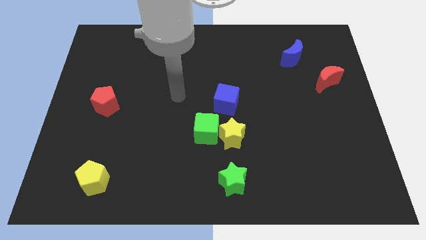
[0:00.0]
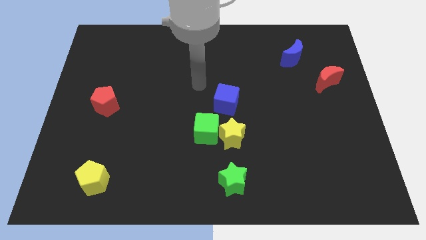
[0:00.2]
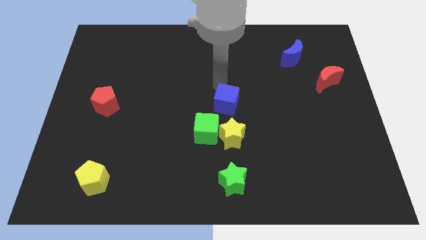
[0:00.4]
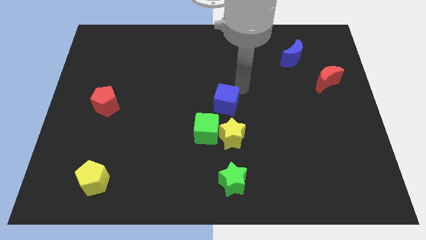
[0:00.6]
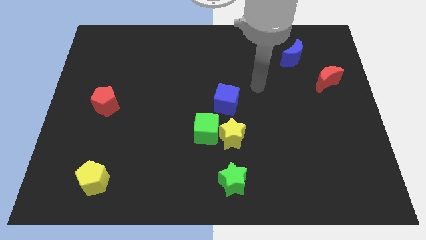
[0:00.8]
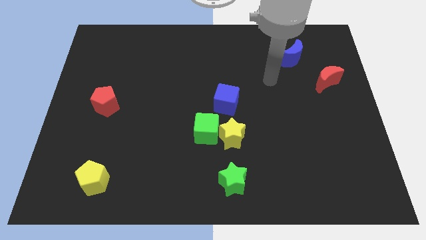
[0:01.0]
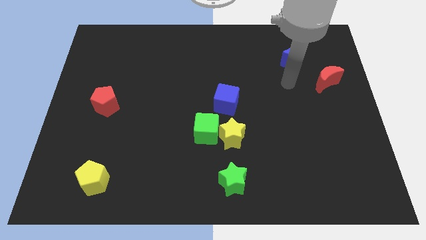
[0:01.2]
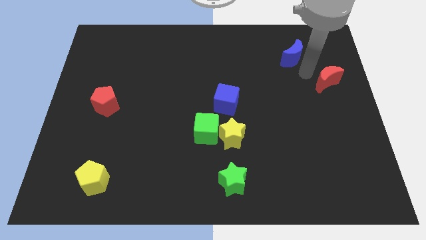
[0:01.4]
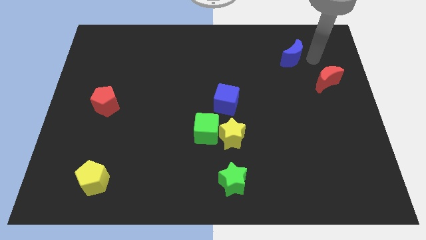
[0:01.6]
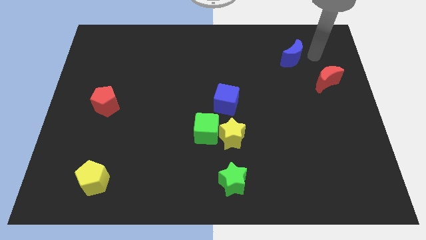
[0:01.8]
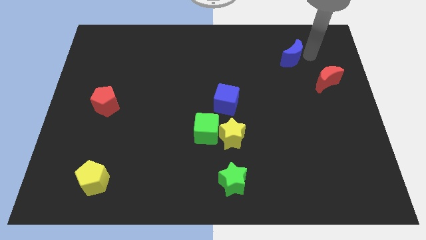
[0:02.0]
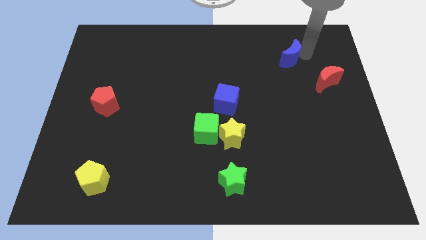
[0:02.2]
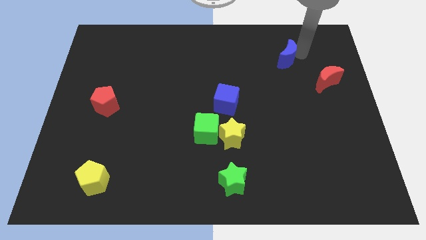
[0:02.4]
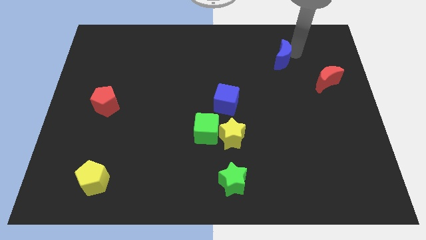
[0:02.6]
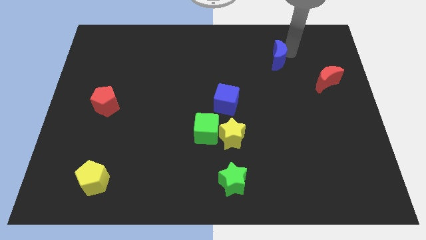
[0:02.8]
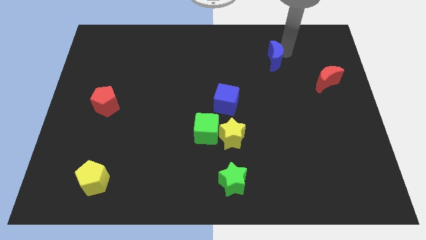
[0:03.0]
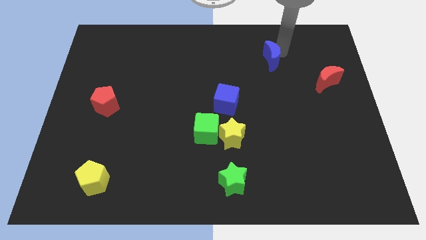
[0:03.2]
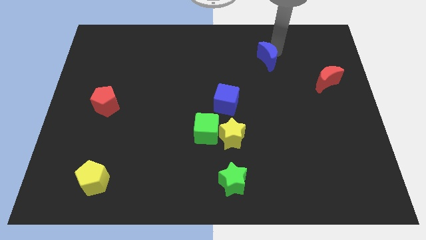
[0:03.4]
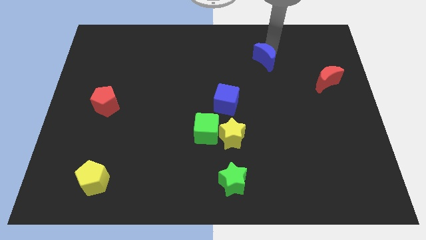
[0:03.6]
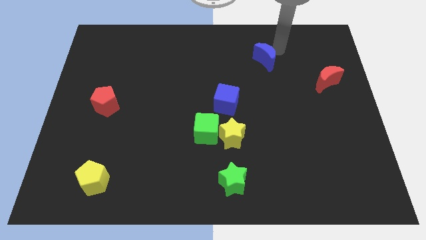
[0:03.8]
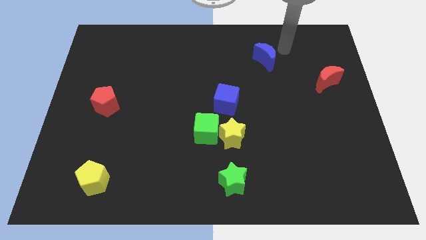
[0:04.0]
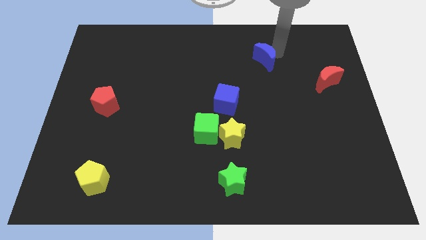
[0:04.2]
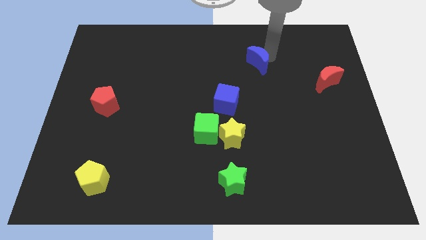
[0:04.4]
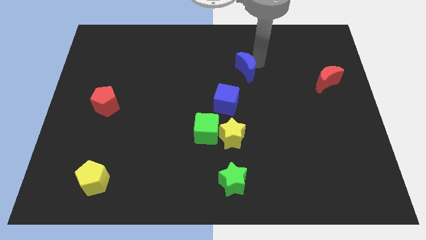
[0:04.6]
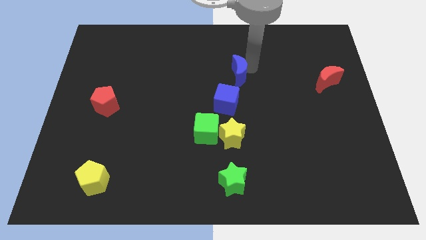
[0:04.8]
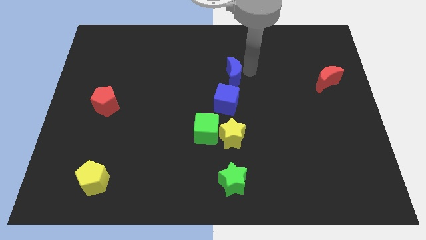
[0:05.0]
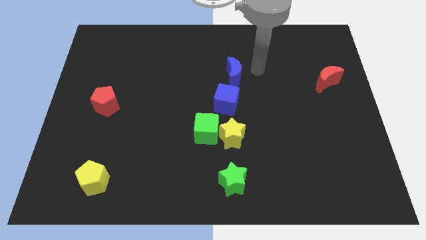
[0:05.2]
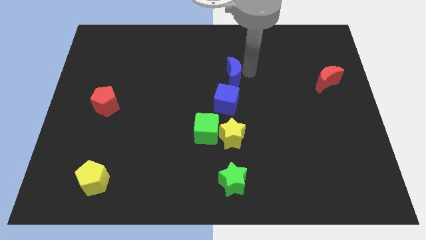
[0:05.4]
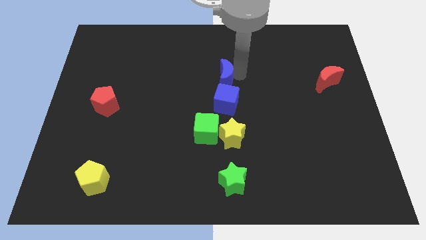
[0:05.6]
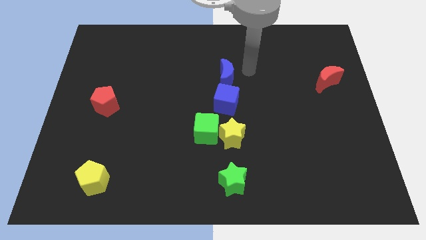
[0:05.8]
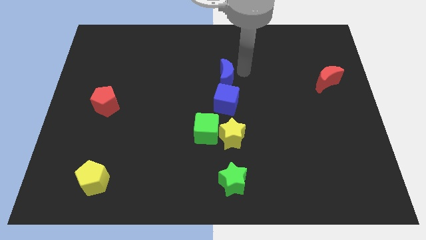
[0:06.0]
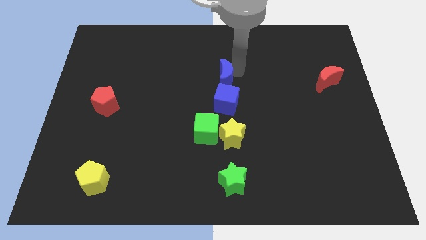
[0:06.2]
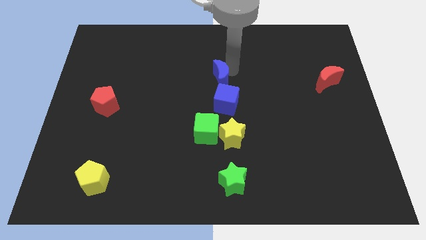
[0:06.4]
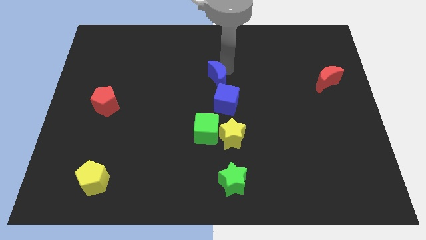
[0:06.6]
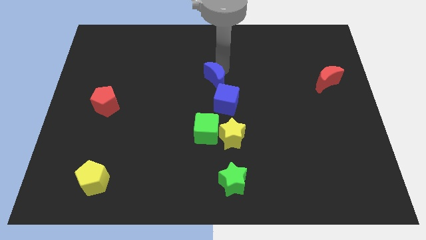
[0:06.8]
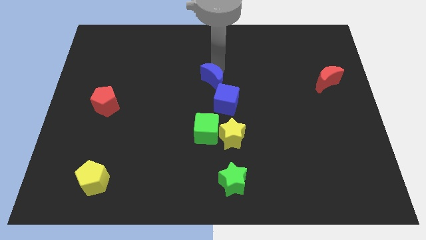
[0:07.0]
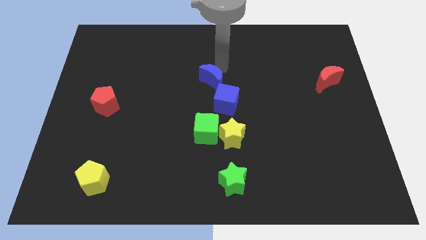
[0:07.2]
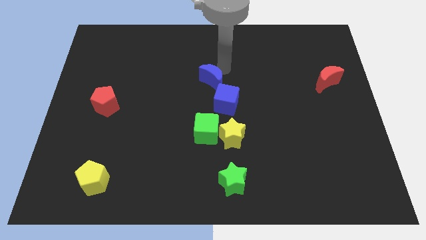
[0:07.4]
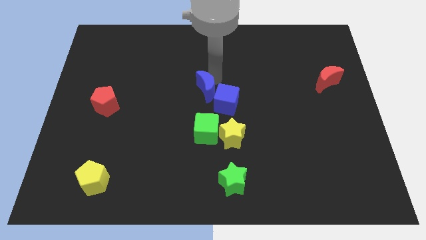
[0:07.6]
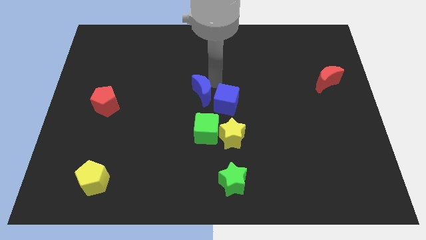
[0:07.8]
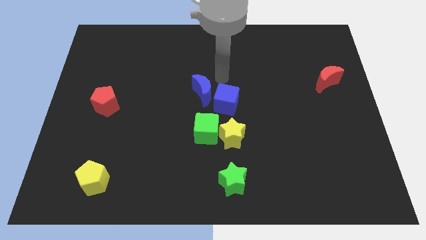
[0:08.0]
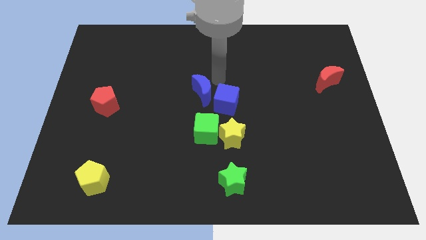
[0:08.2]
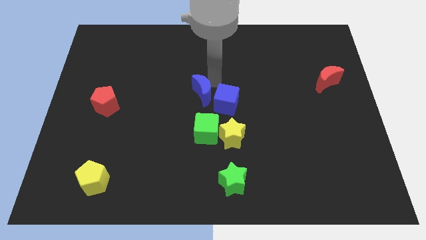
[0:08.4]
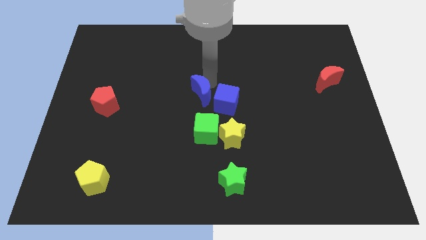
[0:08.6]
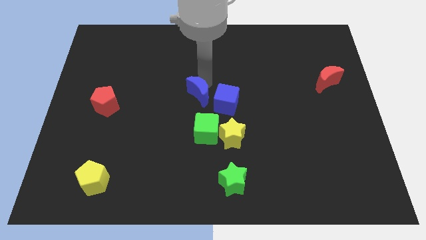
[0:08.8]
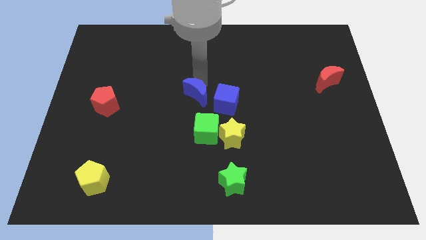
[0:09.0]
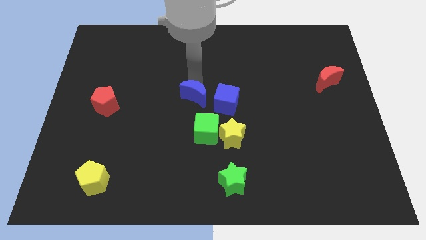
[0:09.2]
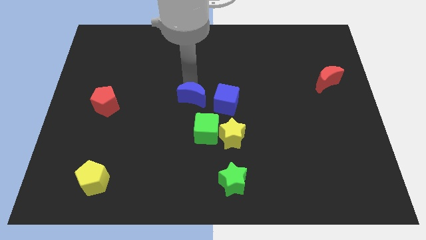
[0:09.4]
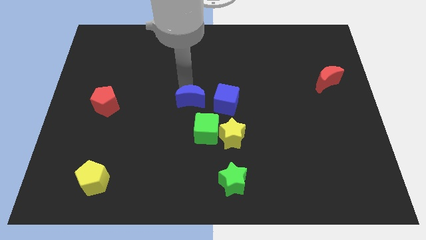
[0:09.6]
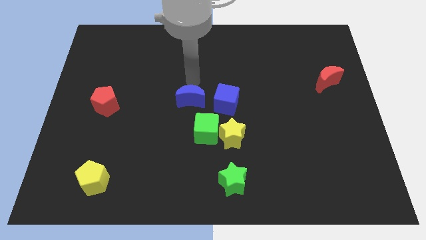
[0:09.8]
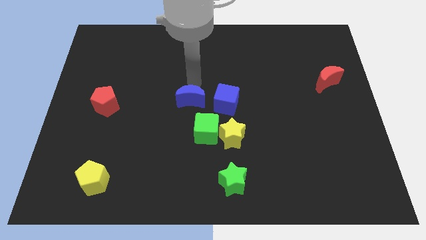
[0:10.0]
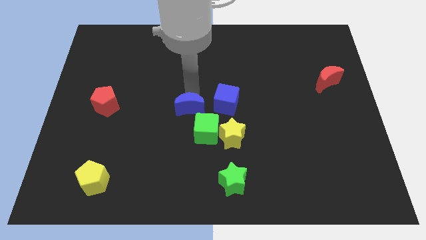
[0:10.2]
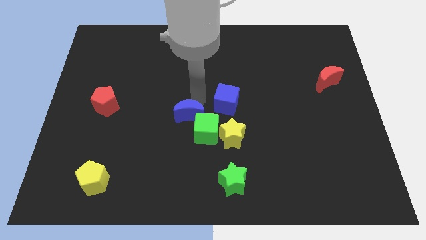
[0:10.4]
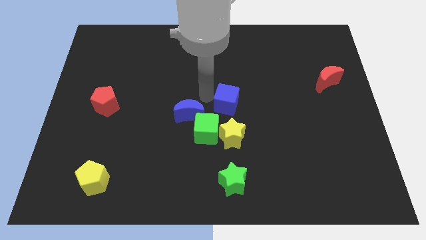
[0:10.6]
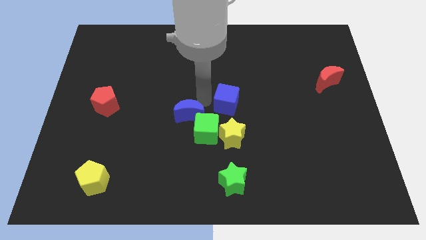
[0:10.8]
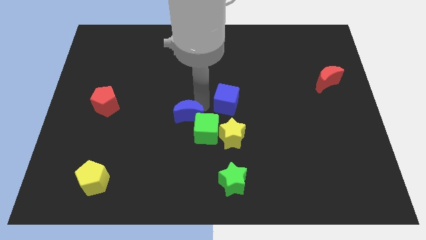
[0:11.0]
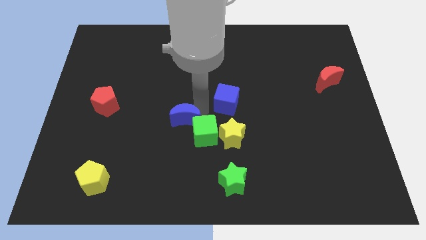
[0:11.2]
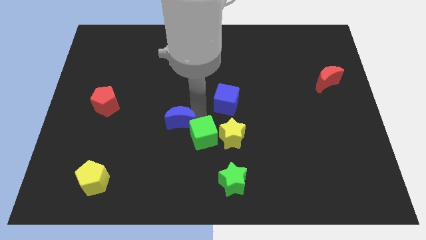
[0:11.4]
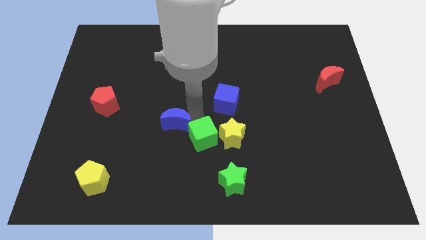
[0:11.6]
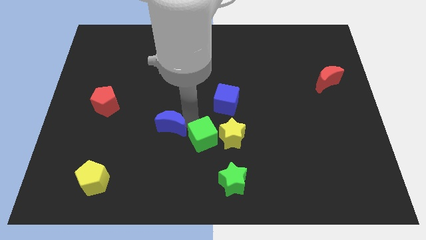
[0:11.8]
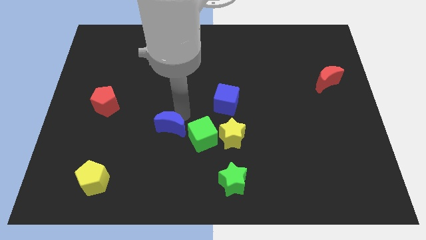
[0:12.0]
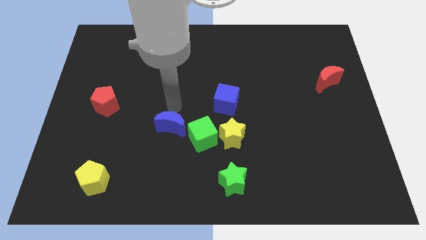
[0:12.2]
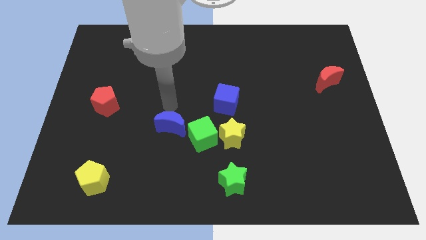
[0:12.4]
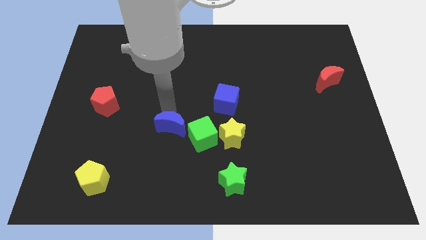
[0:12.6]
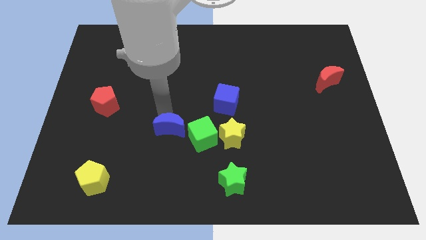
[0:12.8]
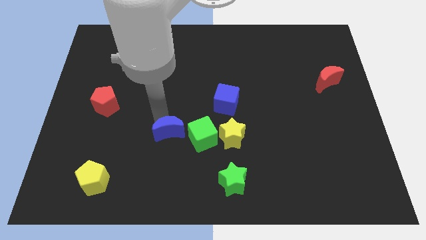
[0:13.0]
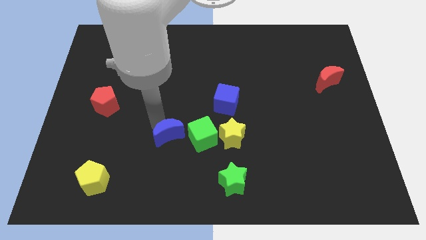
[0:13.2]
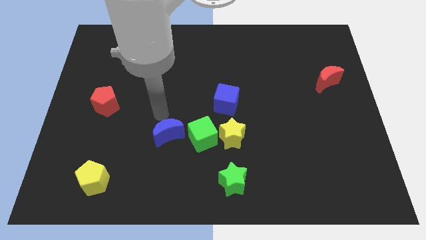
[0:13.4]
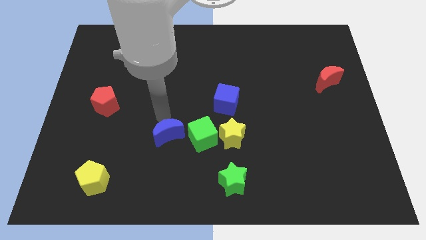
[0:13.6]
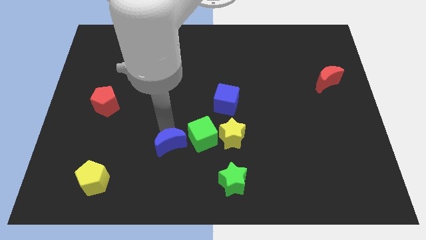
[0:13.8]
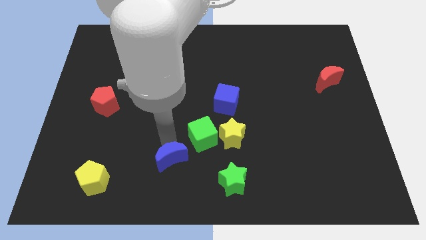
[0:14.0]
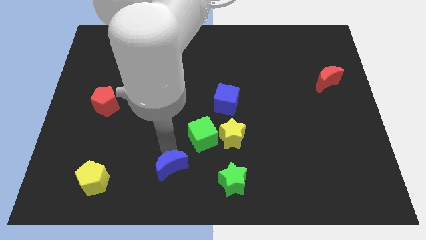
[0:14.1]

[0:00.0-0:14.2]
push the blue moon just left of the green star
